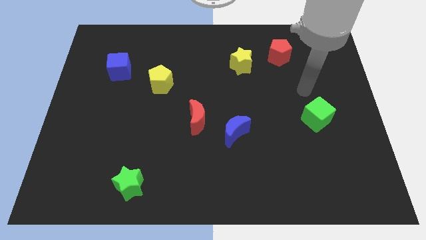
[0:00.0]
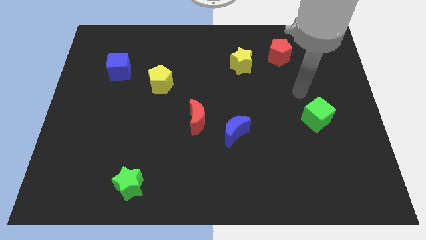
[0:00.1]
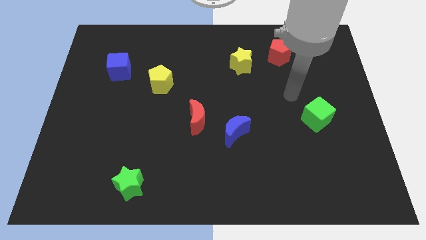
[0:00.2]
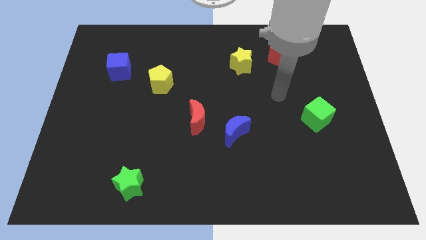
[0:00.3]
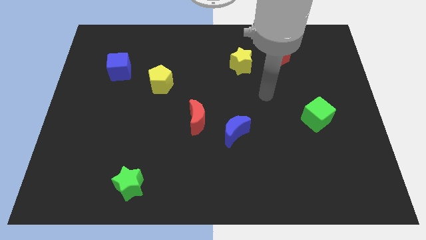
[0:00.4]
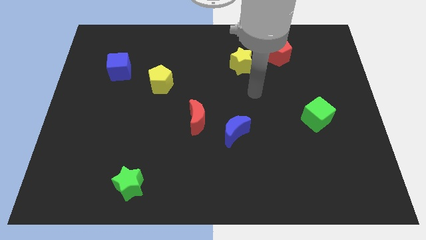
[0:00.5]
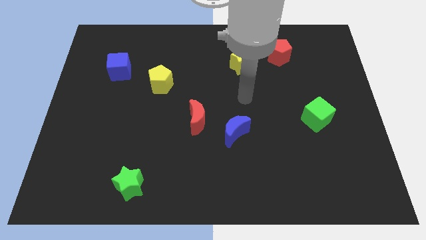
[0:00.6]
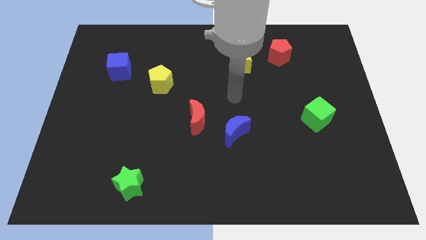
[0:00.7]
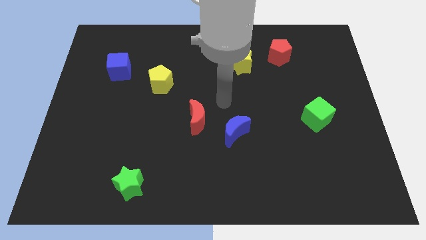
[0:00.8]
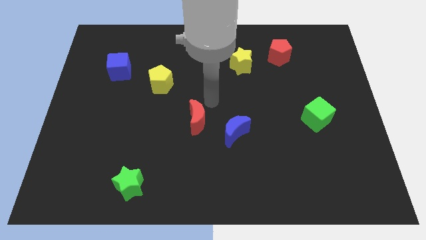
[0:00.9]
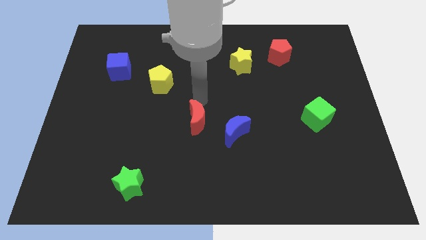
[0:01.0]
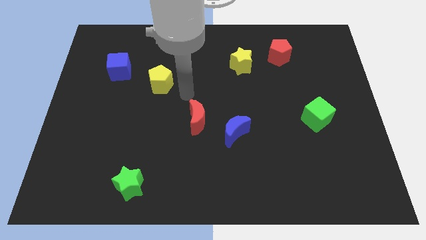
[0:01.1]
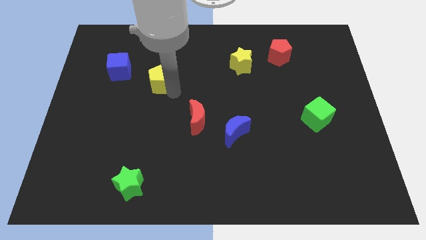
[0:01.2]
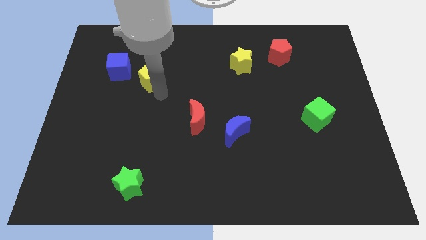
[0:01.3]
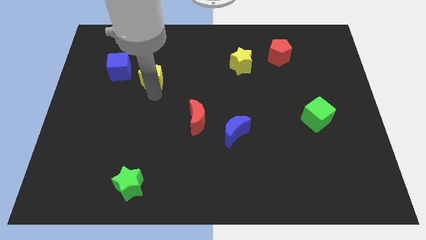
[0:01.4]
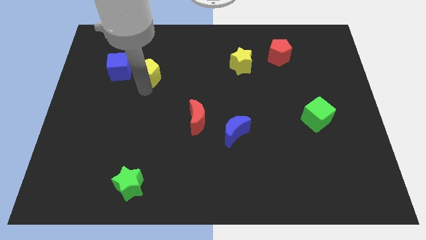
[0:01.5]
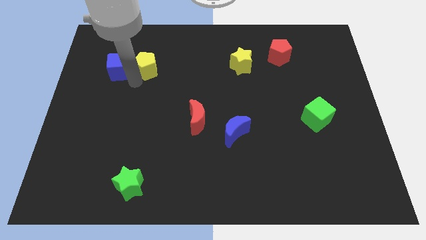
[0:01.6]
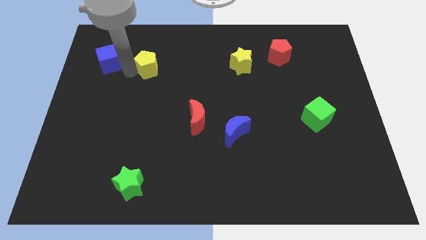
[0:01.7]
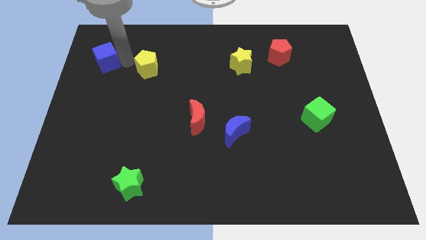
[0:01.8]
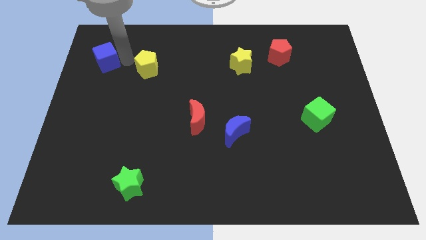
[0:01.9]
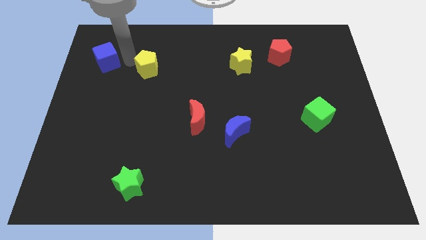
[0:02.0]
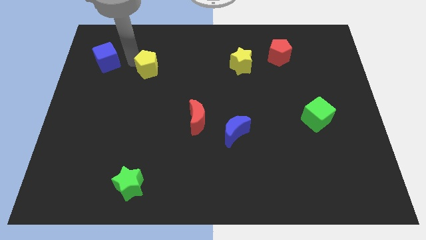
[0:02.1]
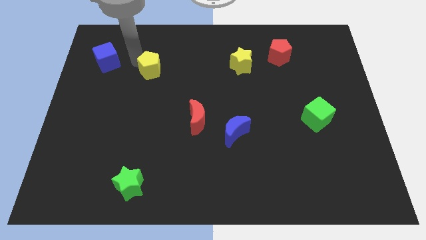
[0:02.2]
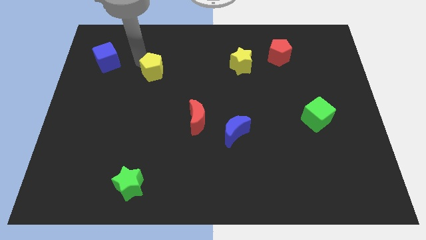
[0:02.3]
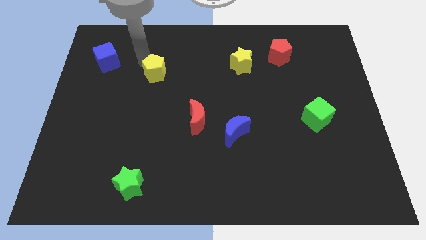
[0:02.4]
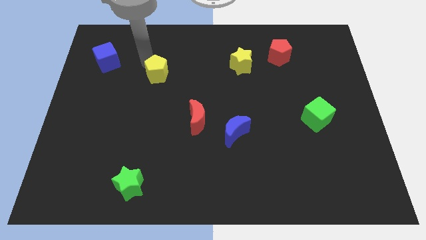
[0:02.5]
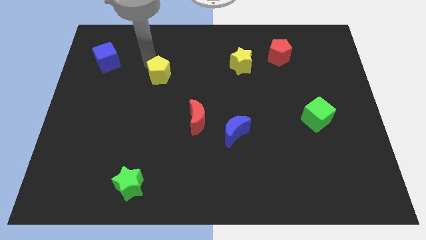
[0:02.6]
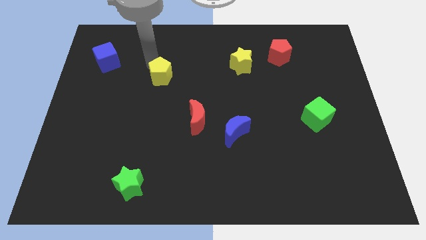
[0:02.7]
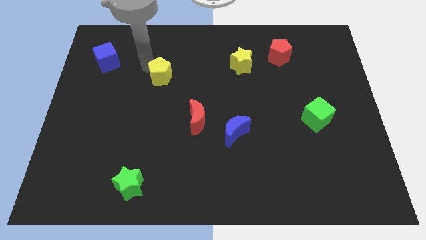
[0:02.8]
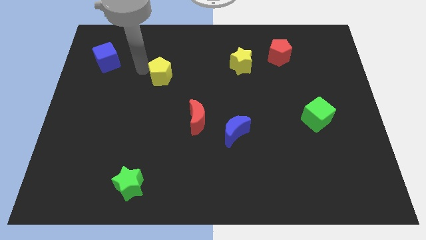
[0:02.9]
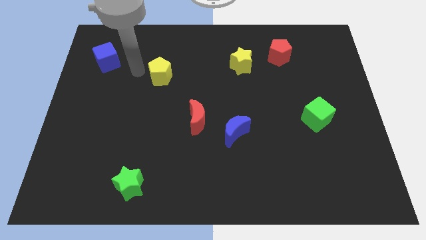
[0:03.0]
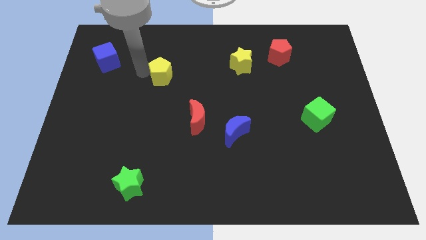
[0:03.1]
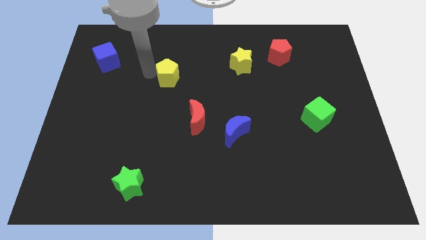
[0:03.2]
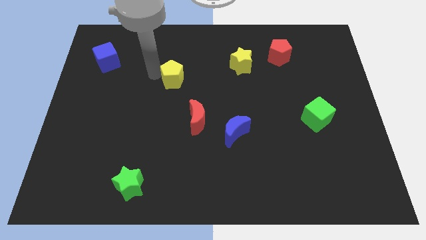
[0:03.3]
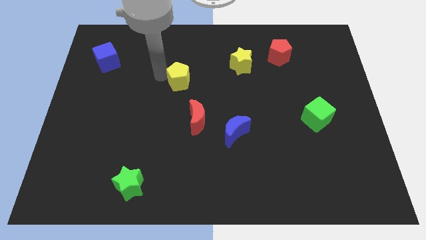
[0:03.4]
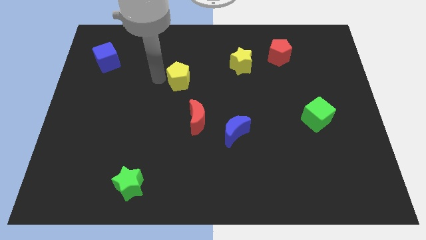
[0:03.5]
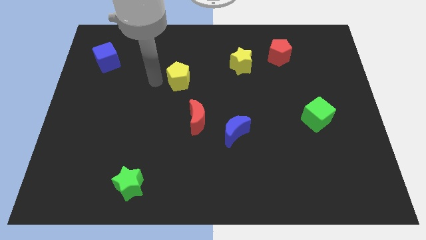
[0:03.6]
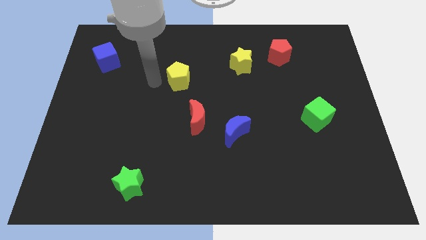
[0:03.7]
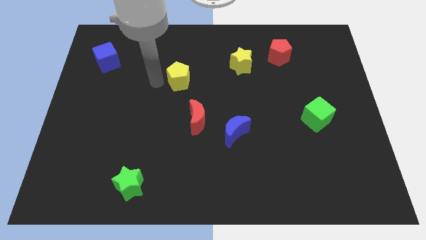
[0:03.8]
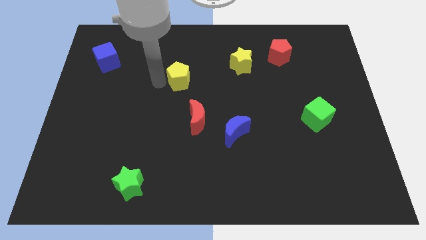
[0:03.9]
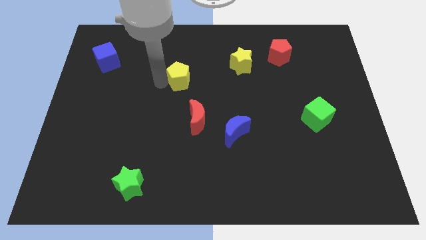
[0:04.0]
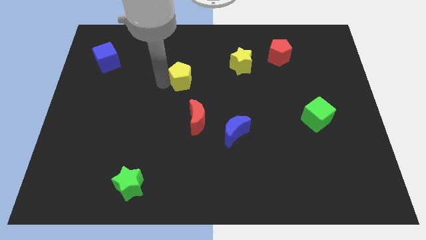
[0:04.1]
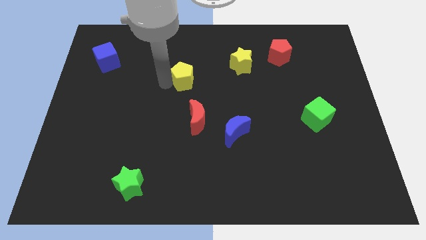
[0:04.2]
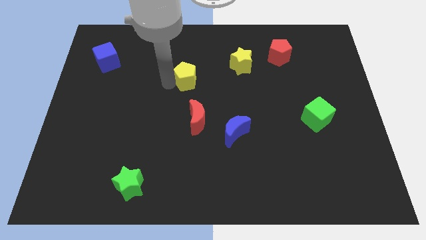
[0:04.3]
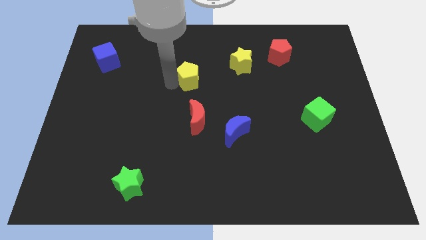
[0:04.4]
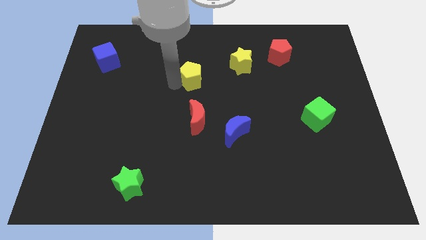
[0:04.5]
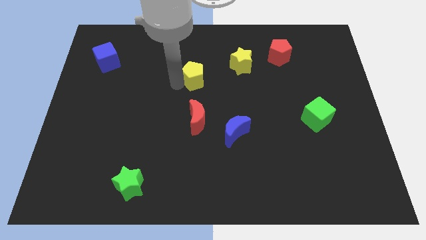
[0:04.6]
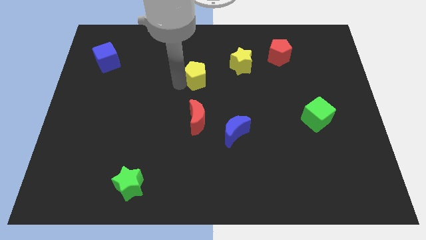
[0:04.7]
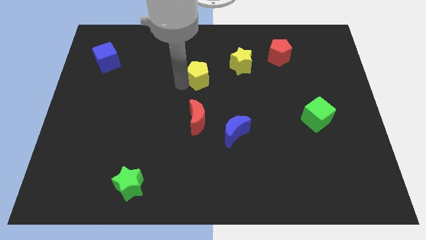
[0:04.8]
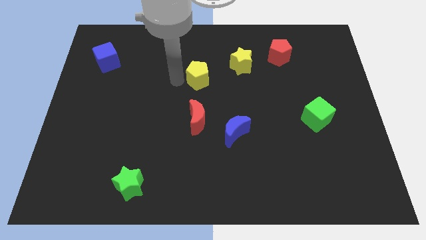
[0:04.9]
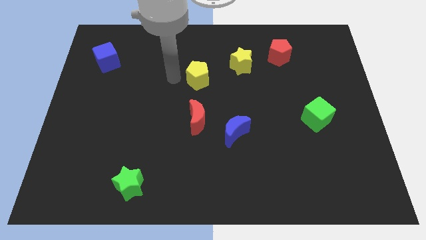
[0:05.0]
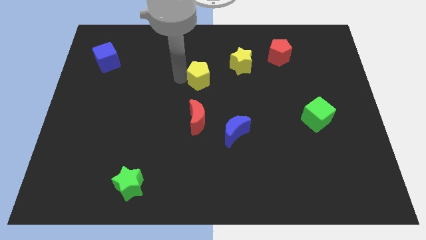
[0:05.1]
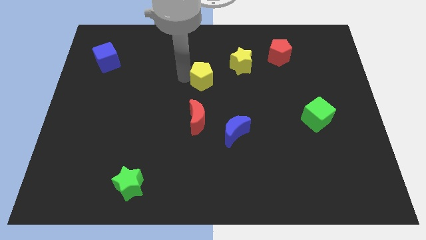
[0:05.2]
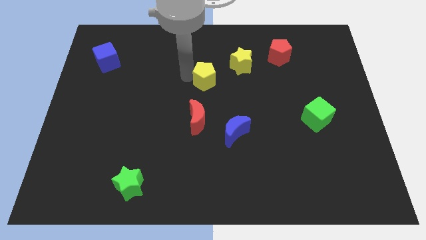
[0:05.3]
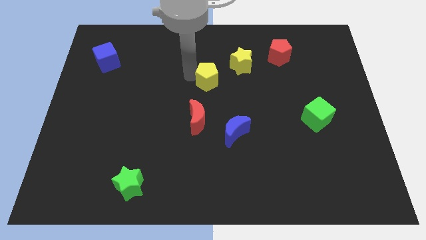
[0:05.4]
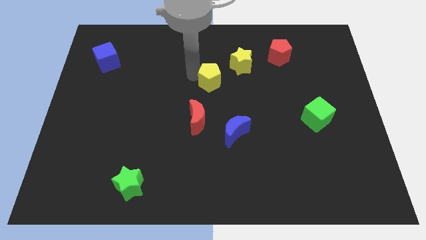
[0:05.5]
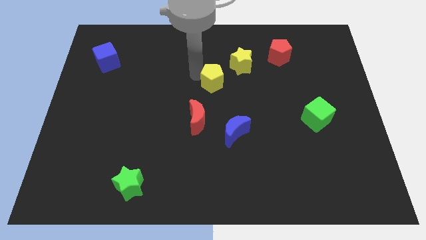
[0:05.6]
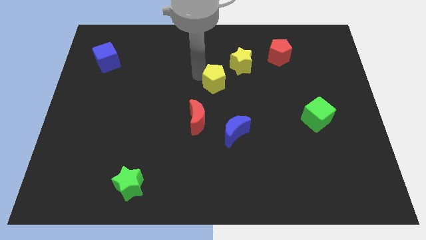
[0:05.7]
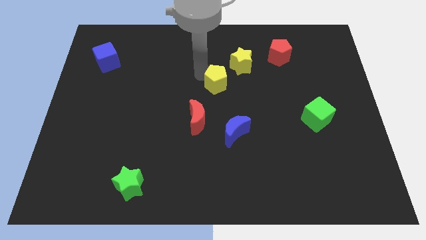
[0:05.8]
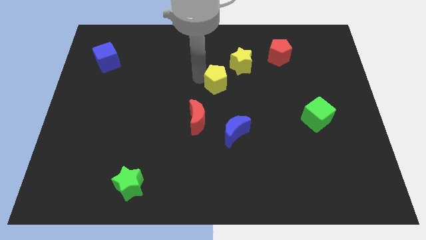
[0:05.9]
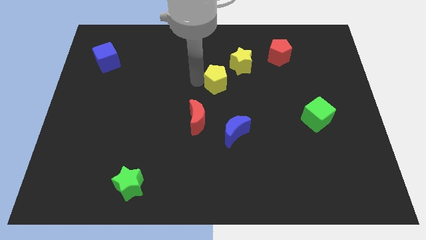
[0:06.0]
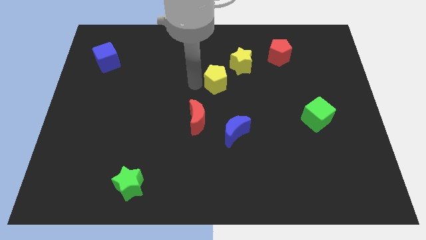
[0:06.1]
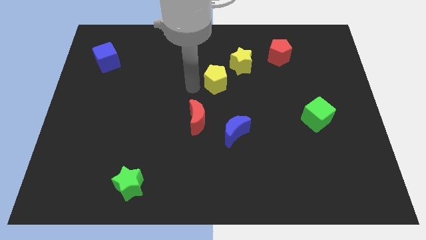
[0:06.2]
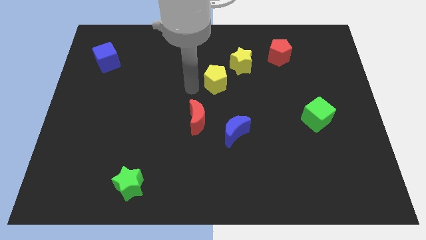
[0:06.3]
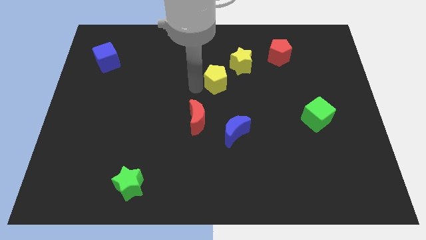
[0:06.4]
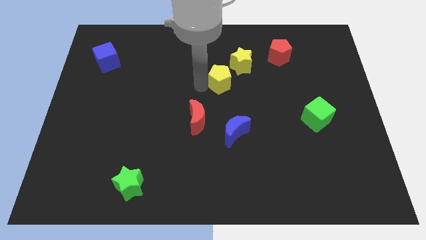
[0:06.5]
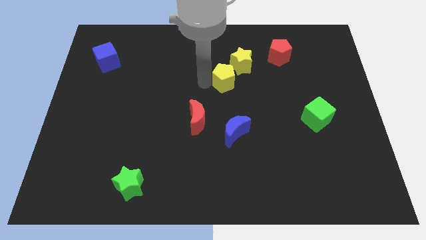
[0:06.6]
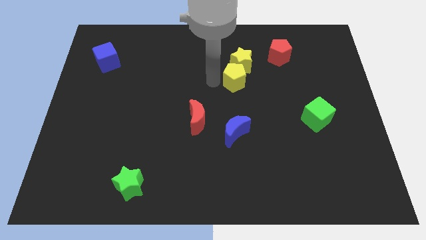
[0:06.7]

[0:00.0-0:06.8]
slide the yellow pentagon diagonally down and to the right of the yellow star

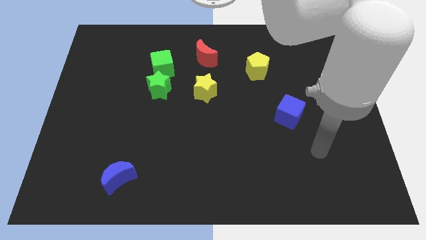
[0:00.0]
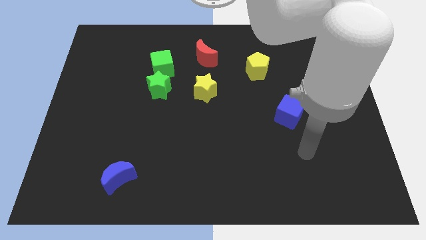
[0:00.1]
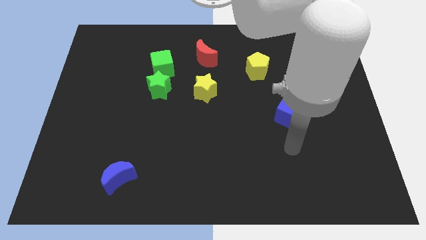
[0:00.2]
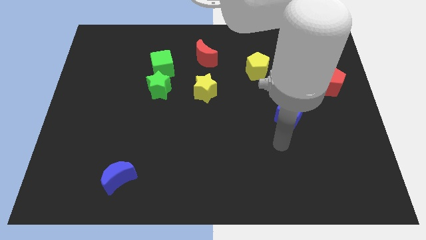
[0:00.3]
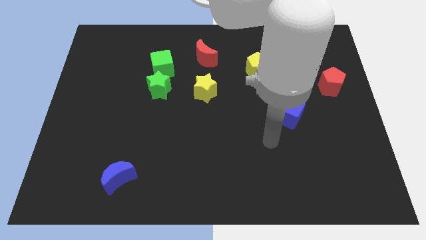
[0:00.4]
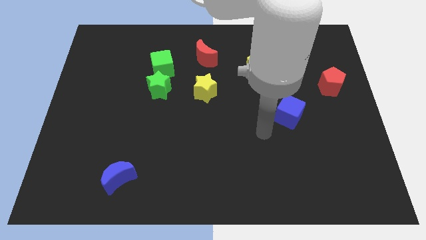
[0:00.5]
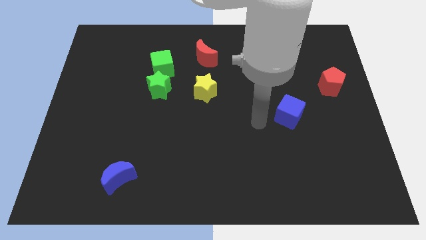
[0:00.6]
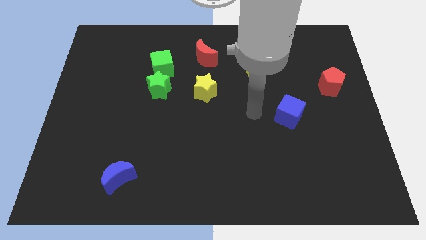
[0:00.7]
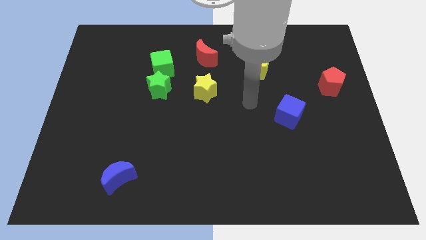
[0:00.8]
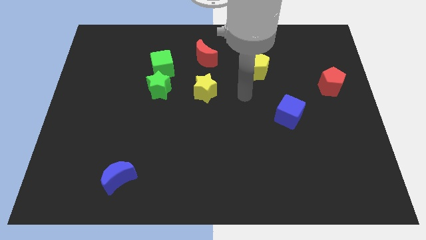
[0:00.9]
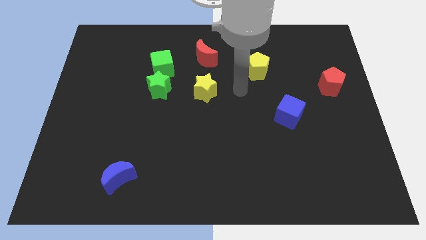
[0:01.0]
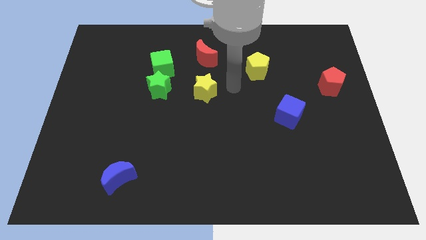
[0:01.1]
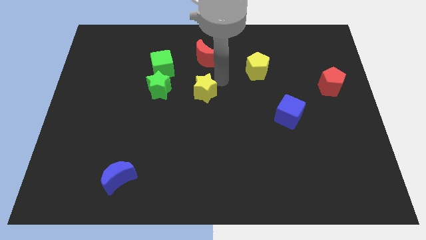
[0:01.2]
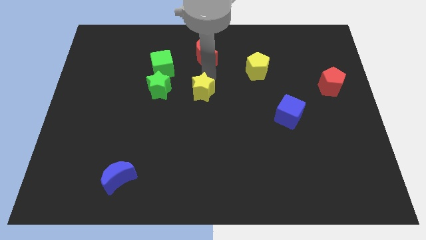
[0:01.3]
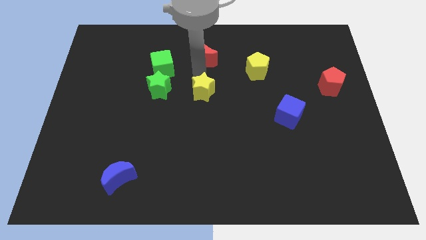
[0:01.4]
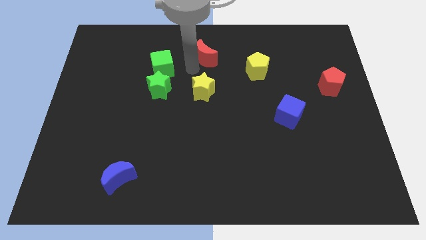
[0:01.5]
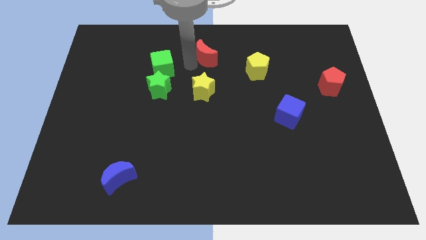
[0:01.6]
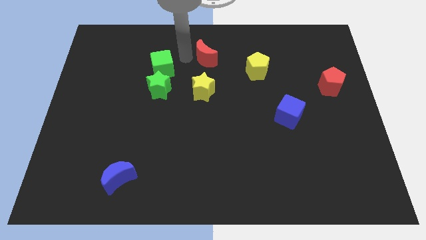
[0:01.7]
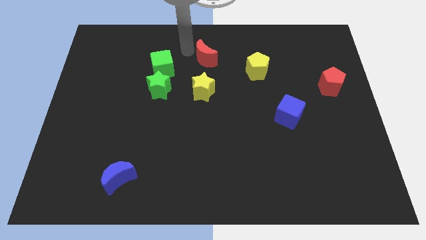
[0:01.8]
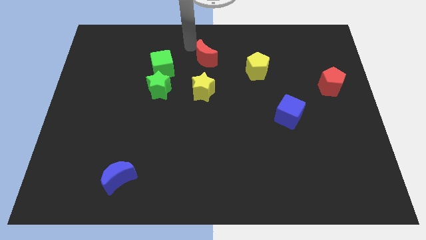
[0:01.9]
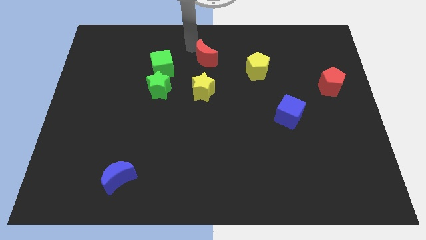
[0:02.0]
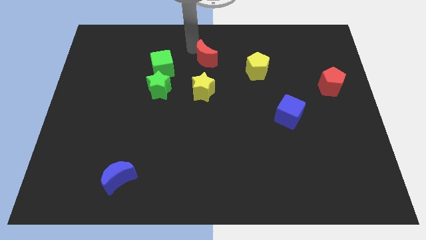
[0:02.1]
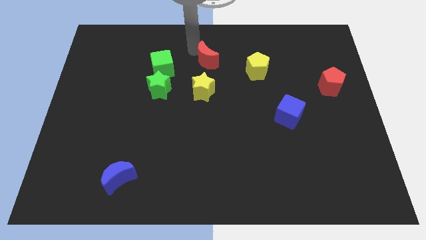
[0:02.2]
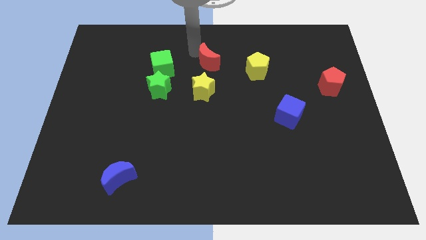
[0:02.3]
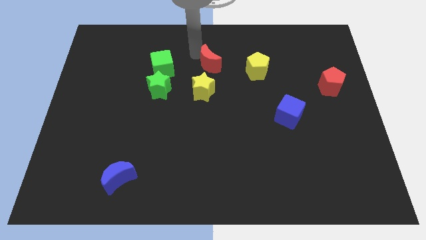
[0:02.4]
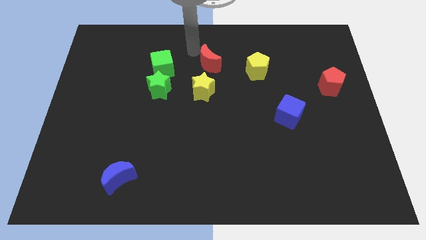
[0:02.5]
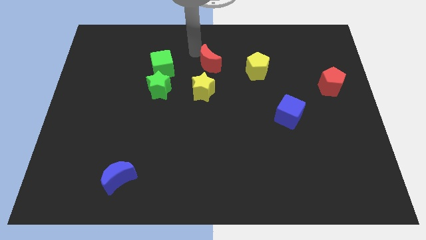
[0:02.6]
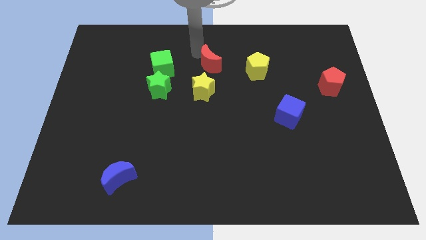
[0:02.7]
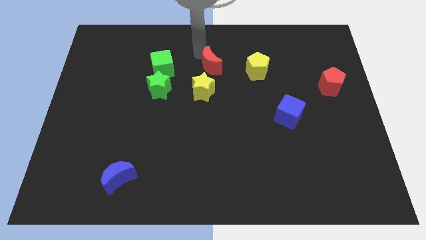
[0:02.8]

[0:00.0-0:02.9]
push the red moon to the top right of the yellow star
